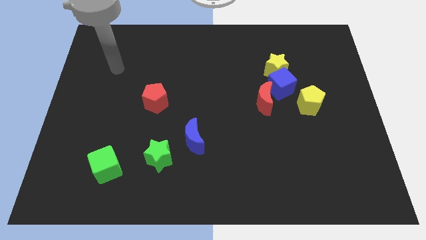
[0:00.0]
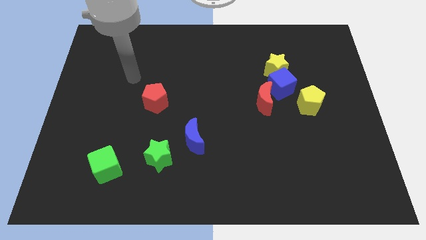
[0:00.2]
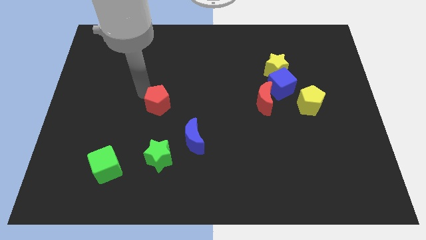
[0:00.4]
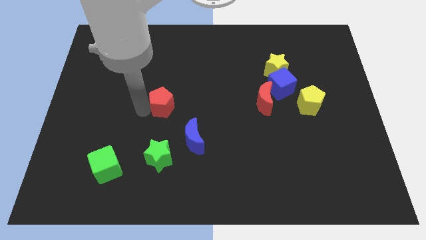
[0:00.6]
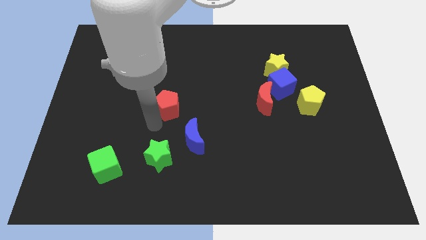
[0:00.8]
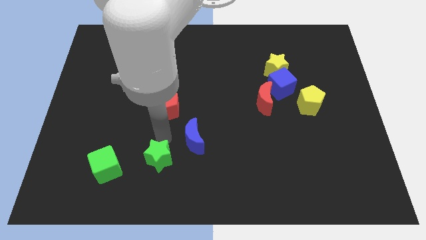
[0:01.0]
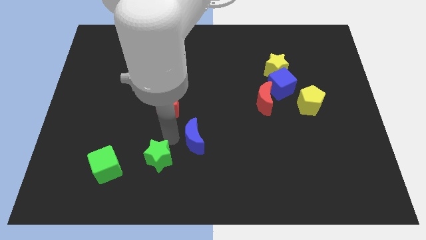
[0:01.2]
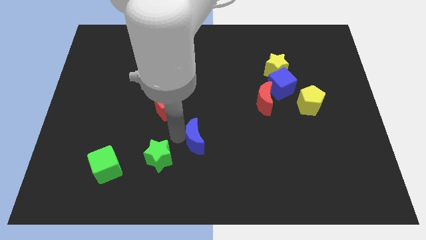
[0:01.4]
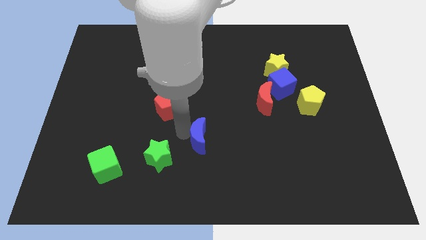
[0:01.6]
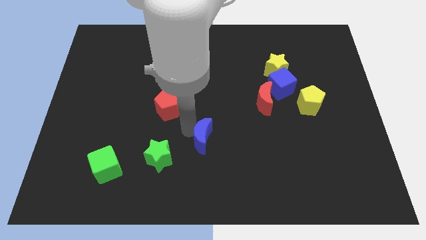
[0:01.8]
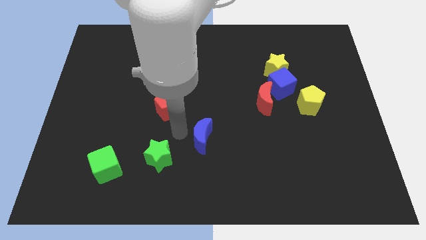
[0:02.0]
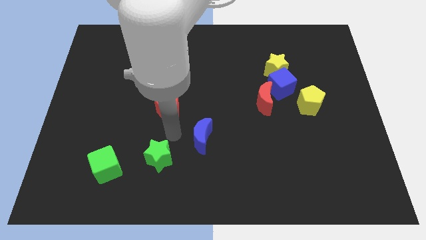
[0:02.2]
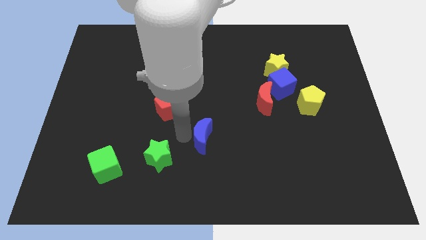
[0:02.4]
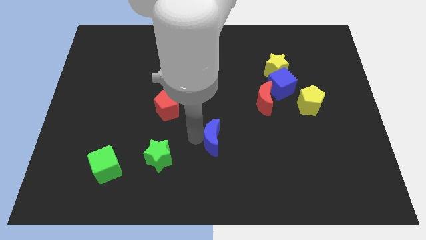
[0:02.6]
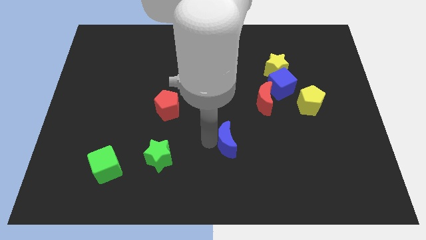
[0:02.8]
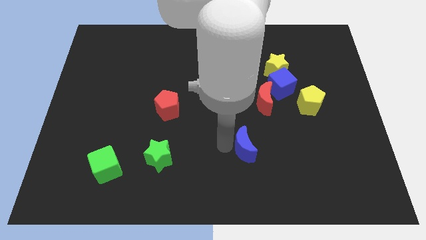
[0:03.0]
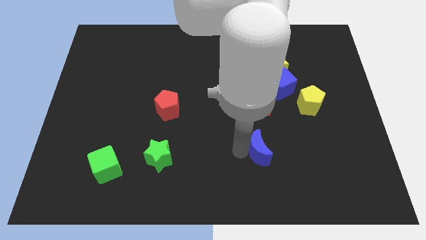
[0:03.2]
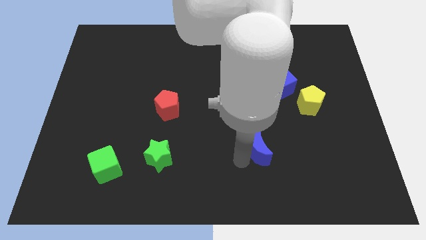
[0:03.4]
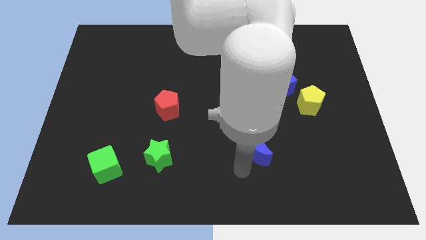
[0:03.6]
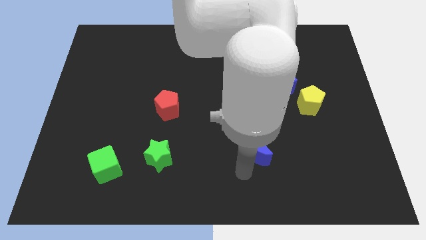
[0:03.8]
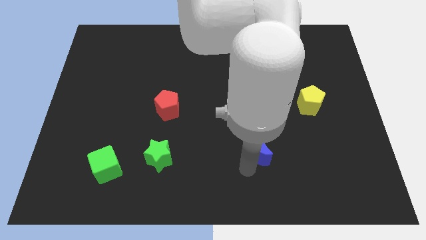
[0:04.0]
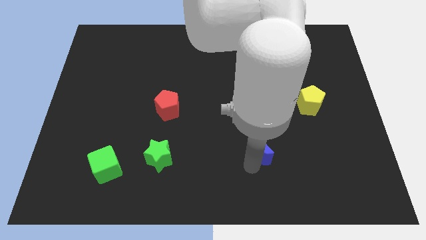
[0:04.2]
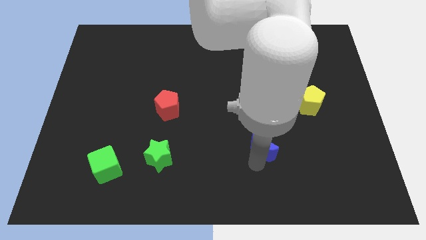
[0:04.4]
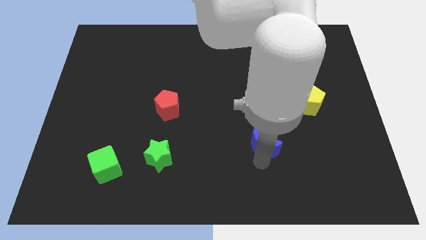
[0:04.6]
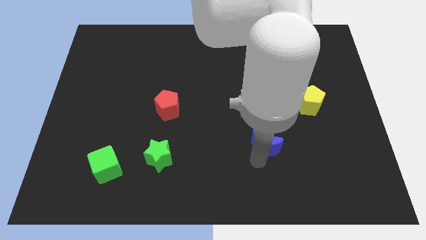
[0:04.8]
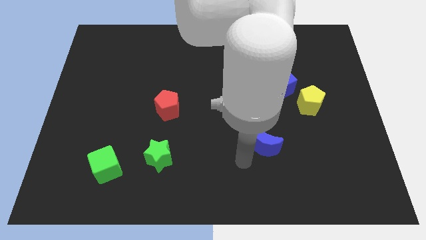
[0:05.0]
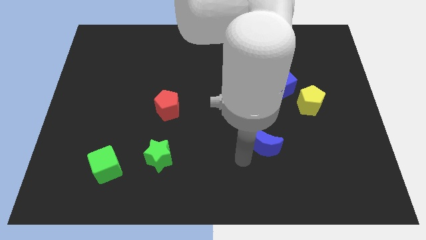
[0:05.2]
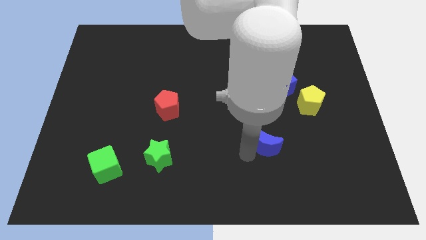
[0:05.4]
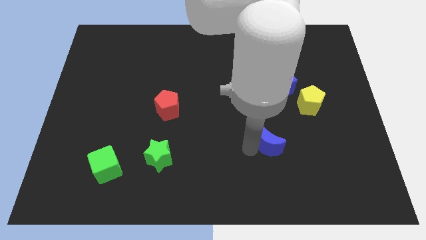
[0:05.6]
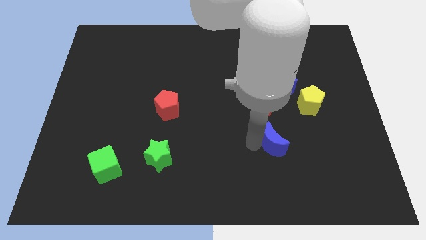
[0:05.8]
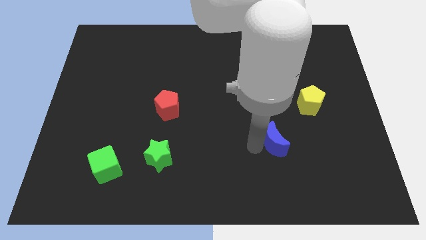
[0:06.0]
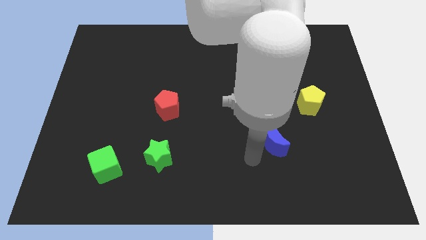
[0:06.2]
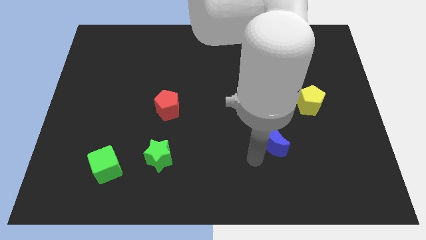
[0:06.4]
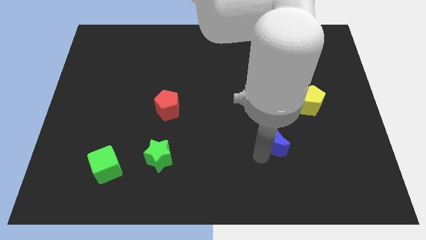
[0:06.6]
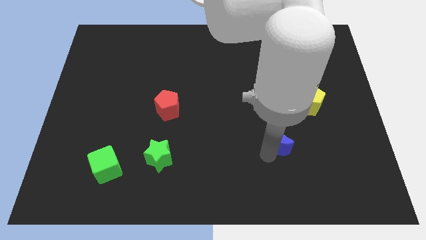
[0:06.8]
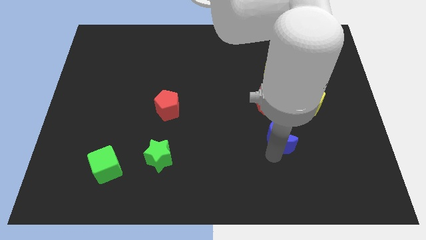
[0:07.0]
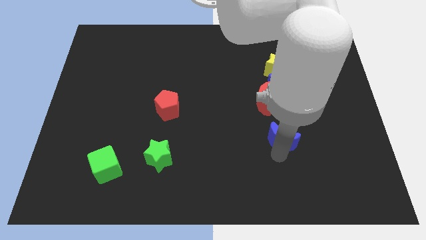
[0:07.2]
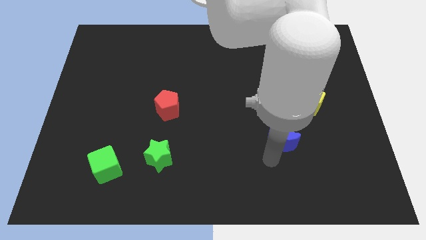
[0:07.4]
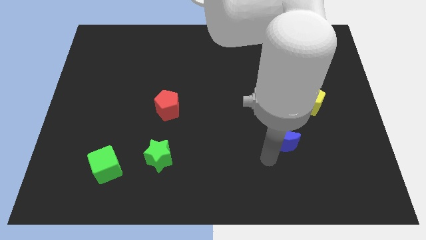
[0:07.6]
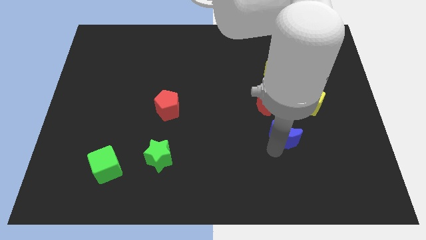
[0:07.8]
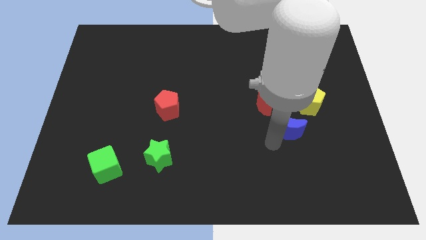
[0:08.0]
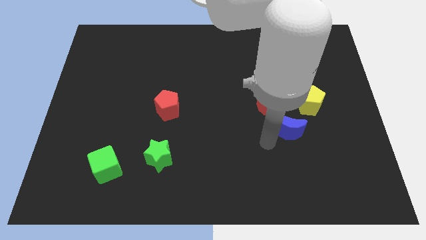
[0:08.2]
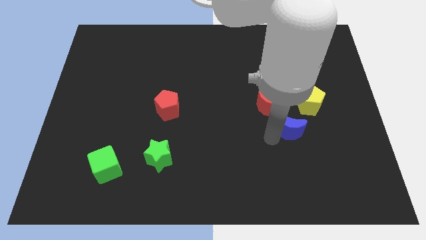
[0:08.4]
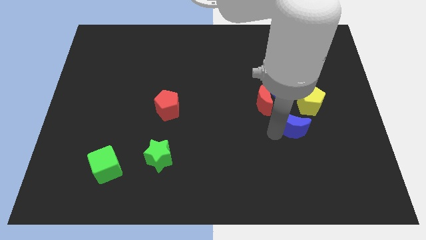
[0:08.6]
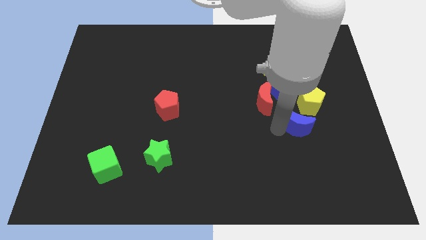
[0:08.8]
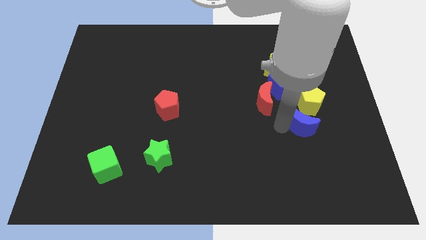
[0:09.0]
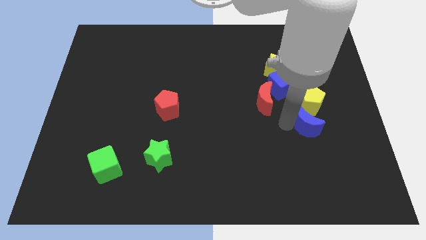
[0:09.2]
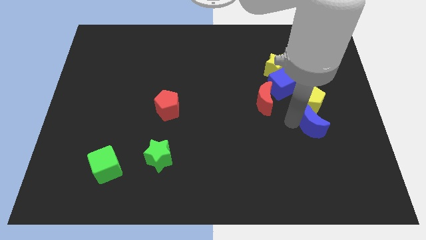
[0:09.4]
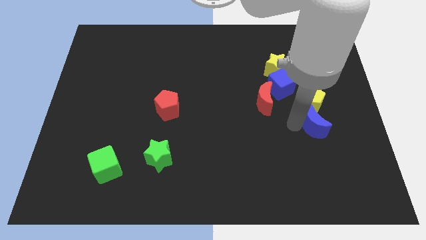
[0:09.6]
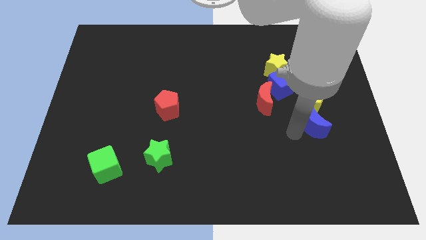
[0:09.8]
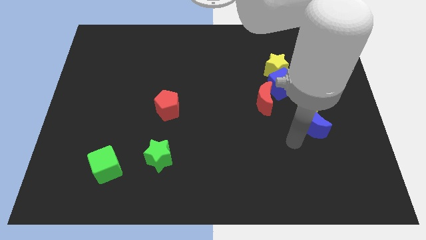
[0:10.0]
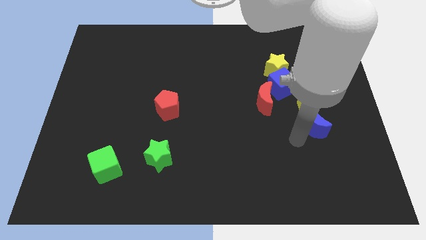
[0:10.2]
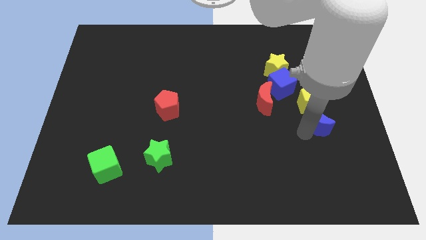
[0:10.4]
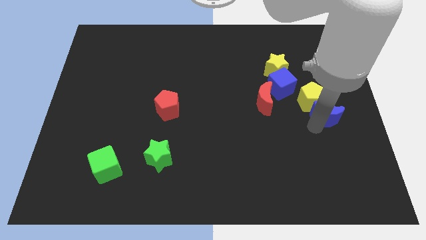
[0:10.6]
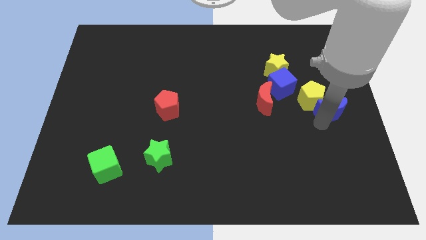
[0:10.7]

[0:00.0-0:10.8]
slide the blue moon just right of the red moon

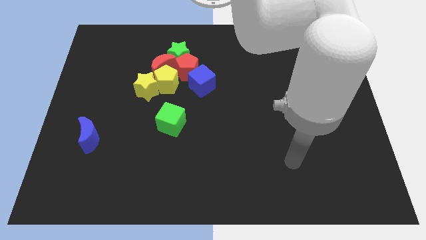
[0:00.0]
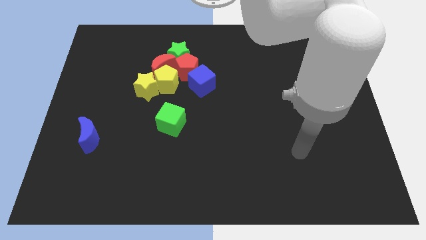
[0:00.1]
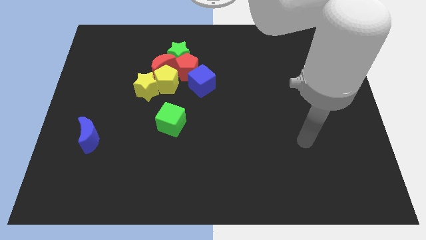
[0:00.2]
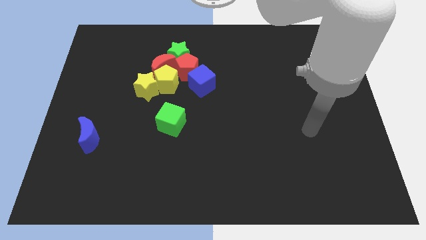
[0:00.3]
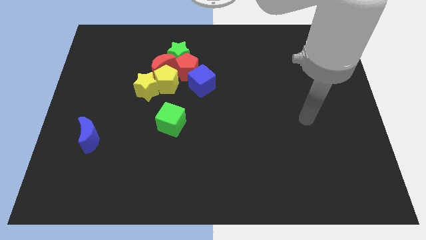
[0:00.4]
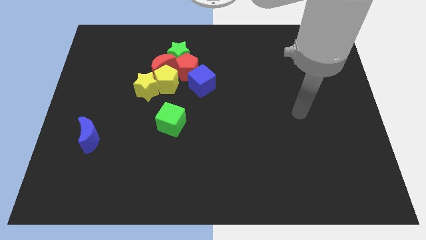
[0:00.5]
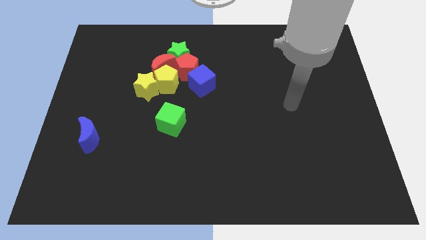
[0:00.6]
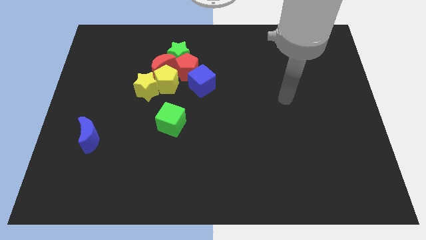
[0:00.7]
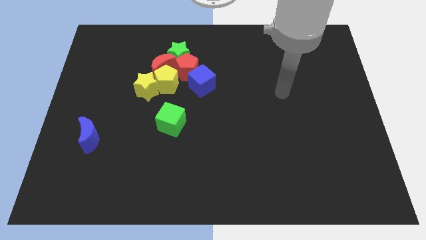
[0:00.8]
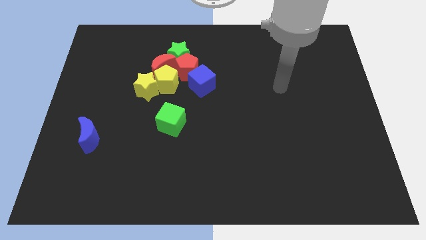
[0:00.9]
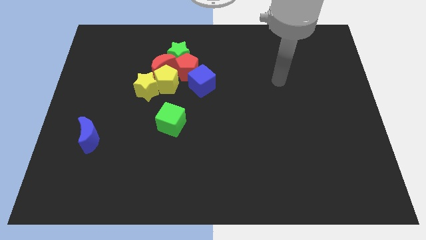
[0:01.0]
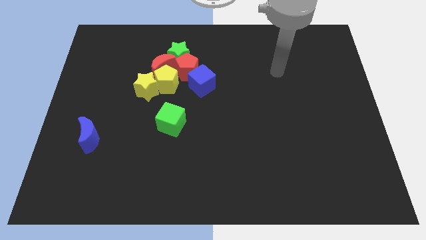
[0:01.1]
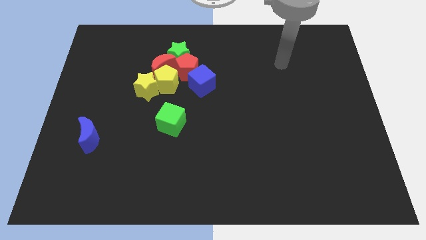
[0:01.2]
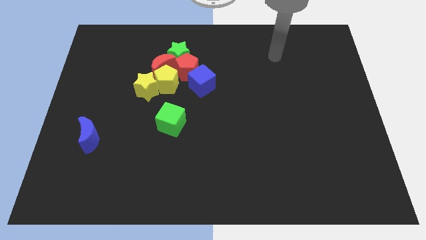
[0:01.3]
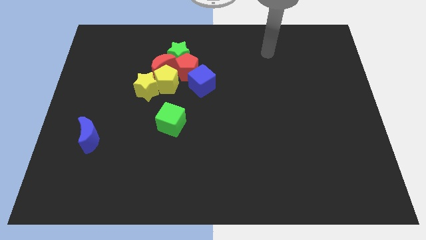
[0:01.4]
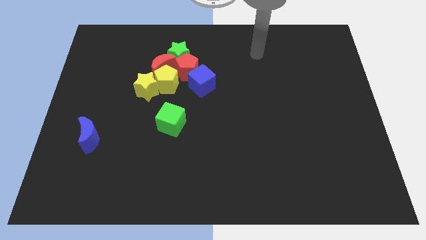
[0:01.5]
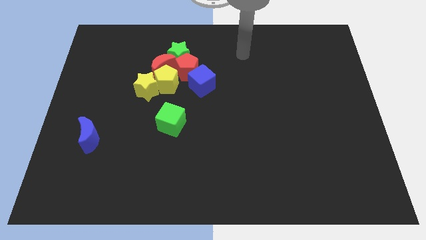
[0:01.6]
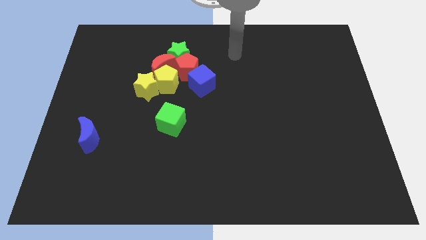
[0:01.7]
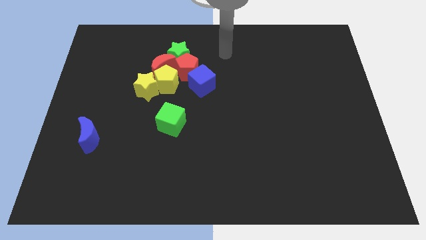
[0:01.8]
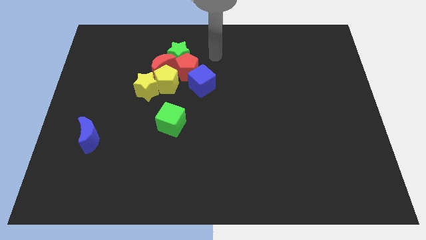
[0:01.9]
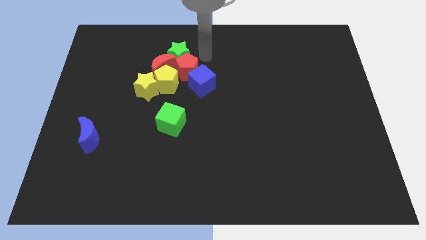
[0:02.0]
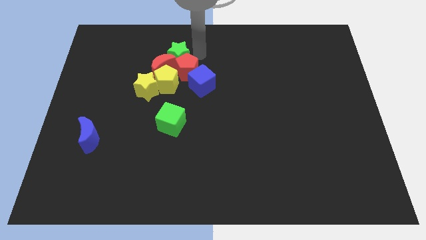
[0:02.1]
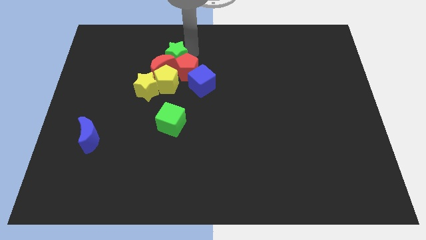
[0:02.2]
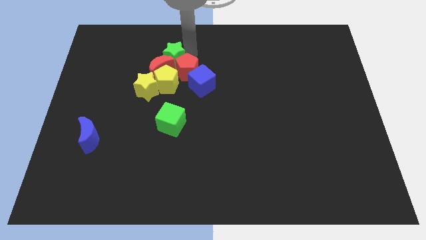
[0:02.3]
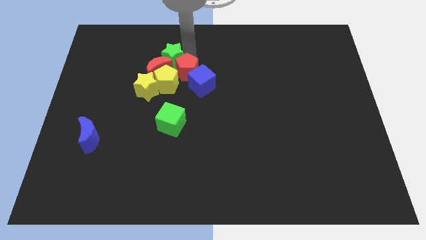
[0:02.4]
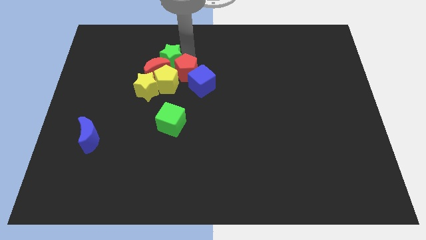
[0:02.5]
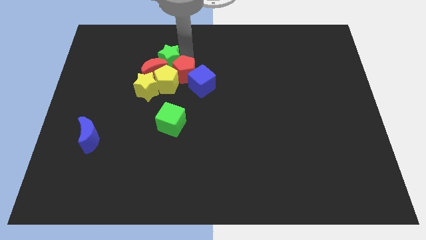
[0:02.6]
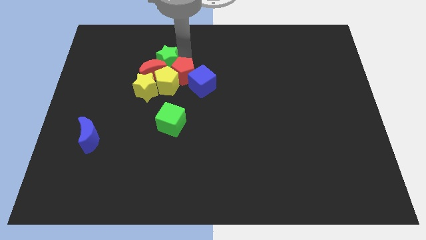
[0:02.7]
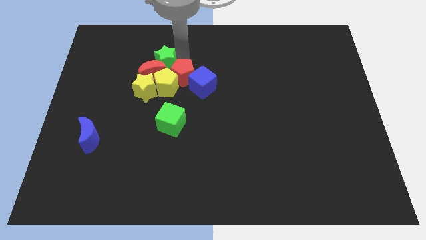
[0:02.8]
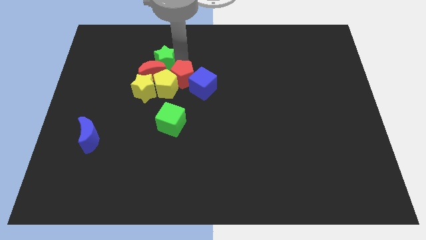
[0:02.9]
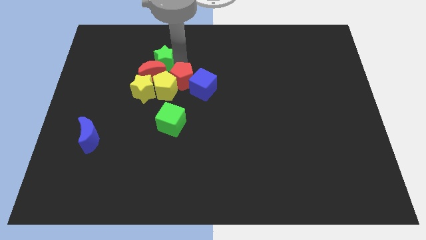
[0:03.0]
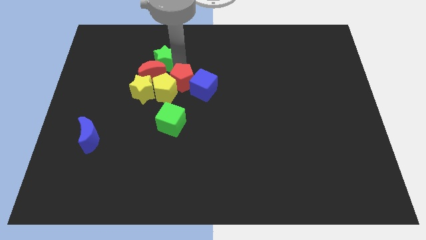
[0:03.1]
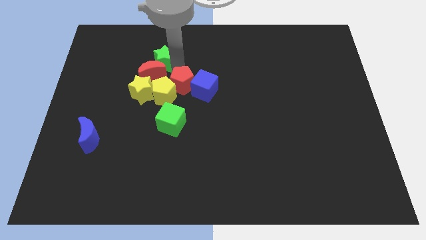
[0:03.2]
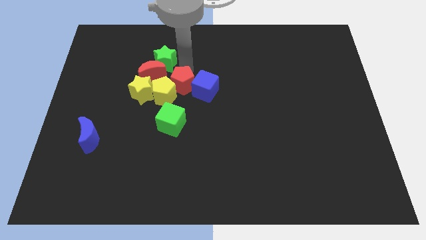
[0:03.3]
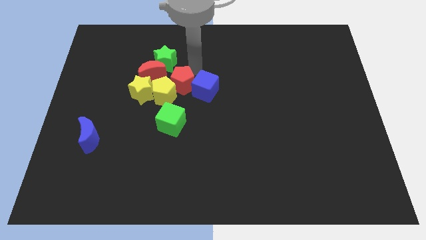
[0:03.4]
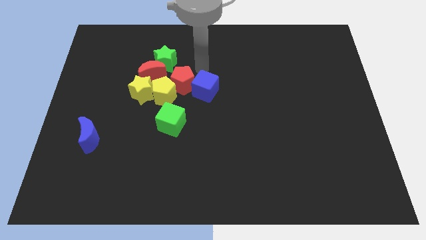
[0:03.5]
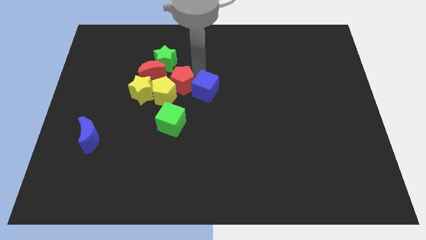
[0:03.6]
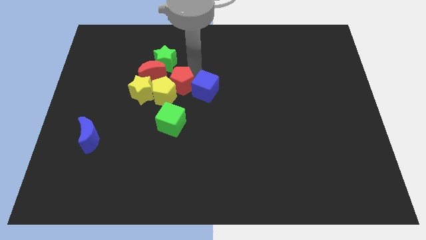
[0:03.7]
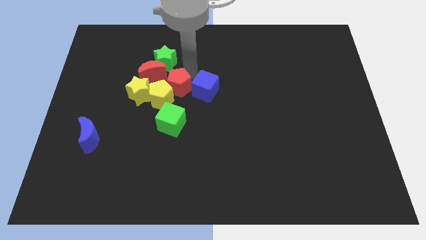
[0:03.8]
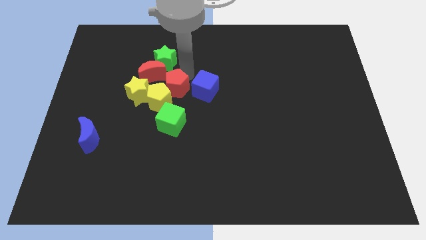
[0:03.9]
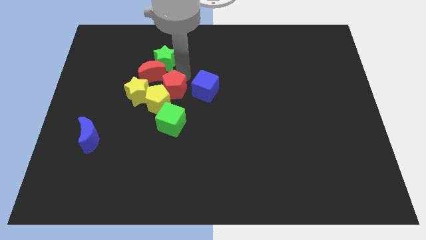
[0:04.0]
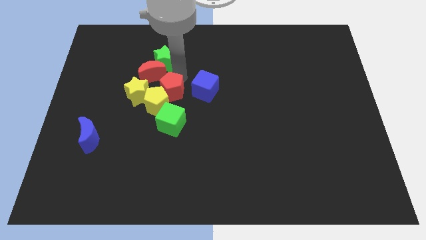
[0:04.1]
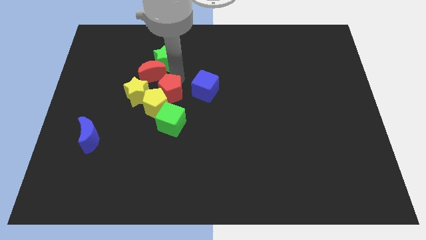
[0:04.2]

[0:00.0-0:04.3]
slide the red pentagon below the red moon
